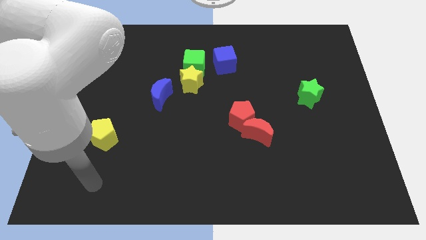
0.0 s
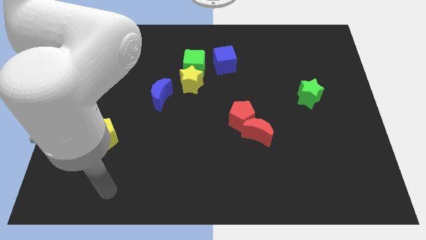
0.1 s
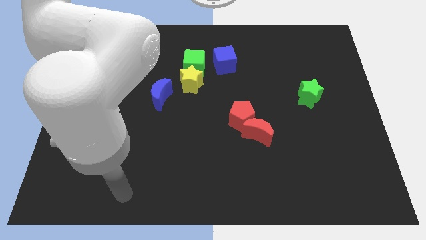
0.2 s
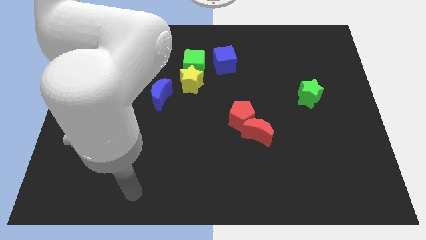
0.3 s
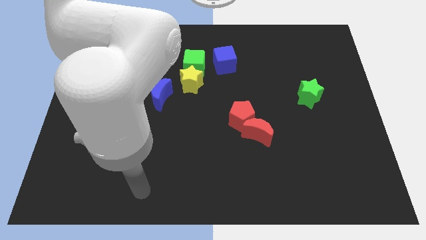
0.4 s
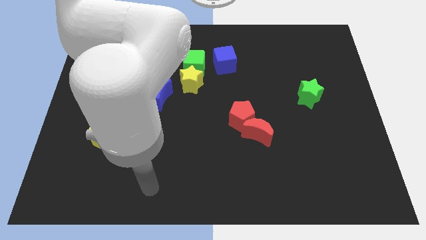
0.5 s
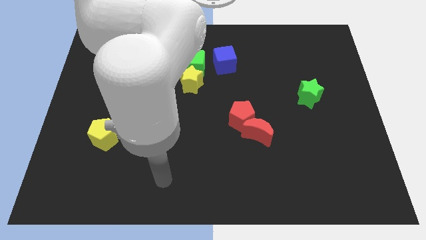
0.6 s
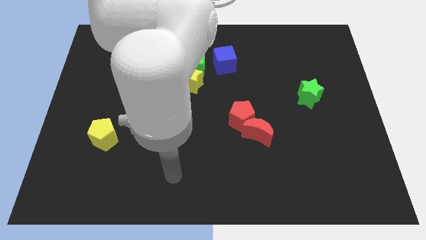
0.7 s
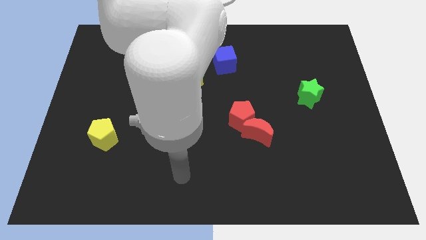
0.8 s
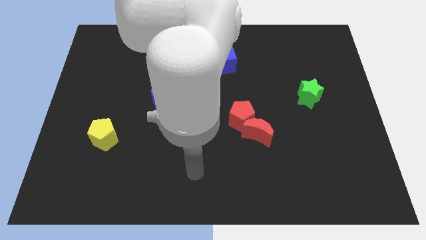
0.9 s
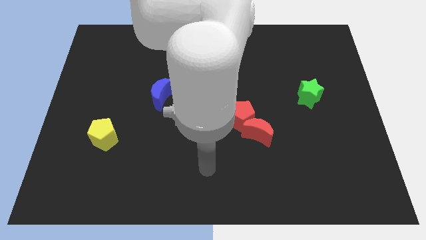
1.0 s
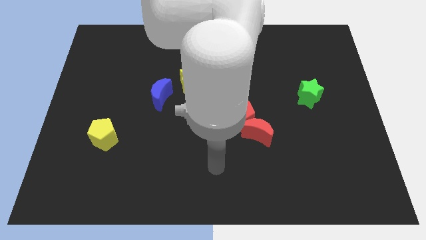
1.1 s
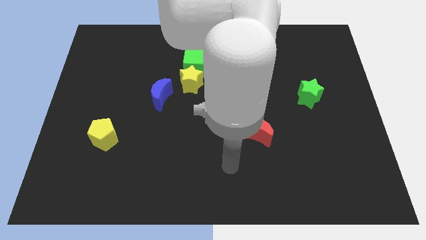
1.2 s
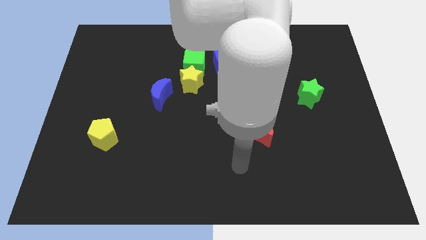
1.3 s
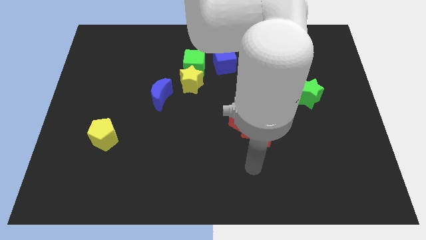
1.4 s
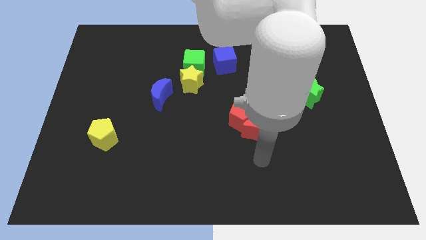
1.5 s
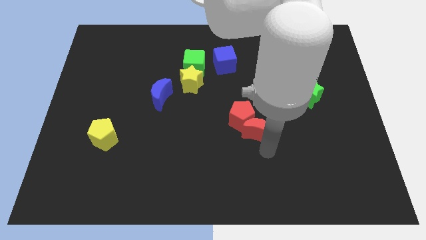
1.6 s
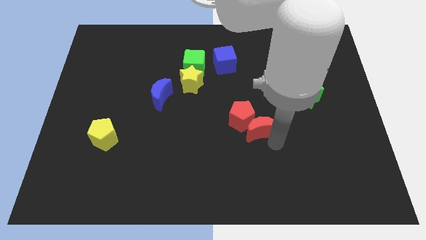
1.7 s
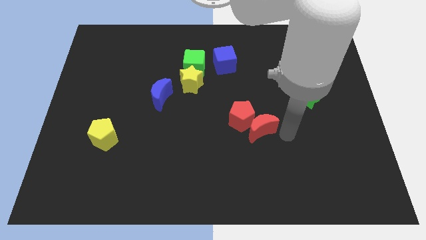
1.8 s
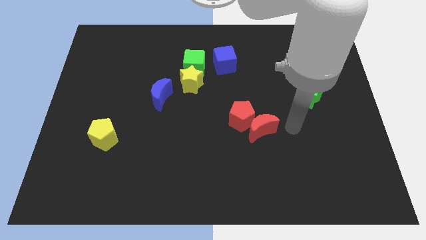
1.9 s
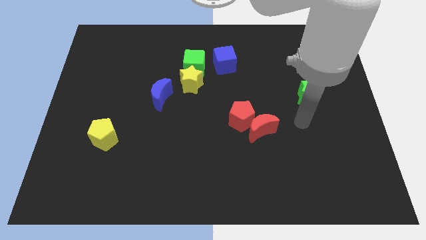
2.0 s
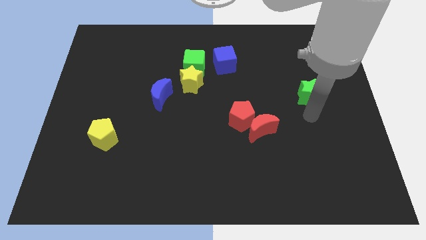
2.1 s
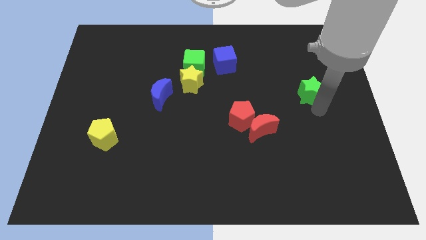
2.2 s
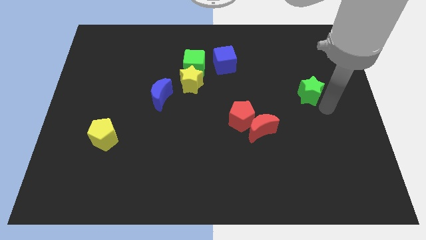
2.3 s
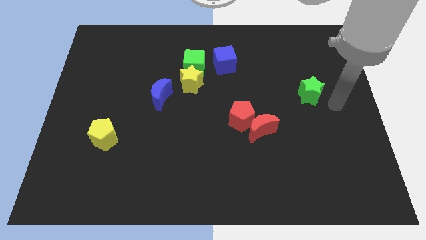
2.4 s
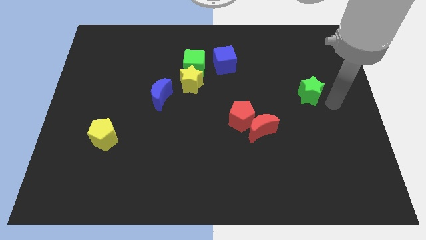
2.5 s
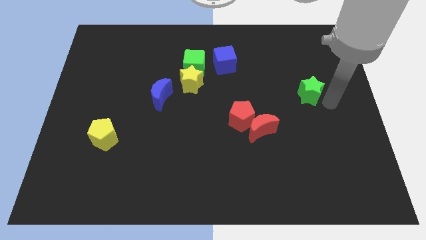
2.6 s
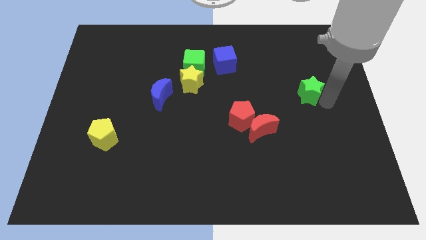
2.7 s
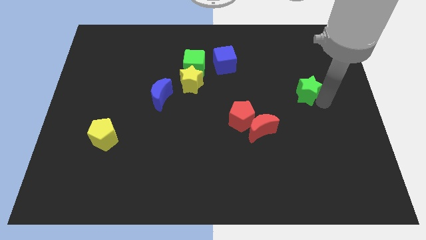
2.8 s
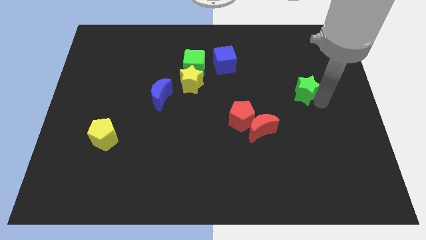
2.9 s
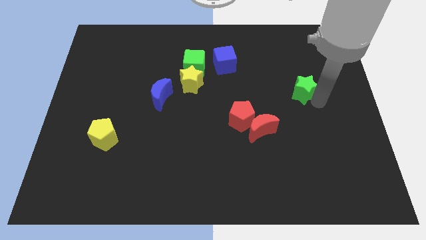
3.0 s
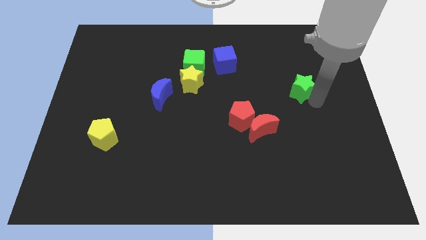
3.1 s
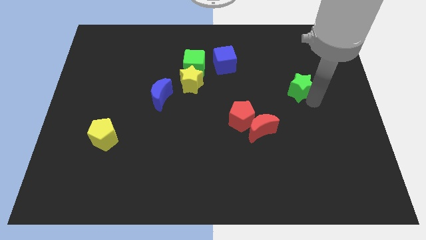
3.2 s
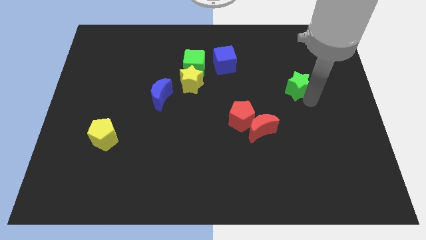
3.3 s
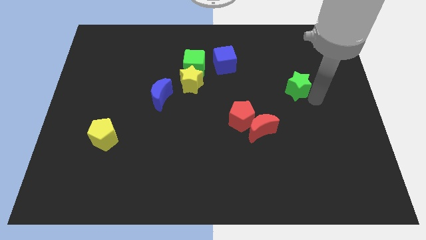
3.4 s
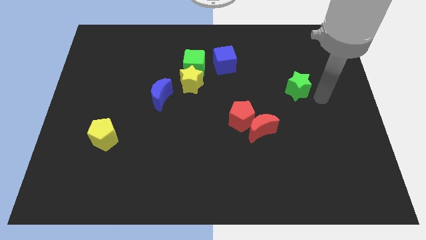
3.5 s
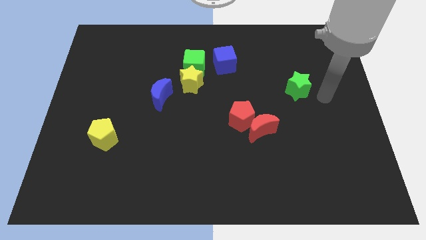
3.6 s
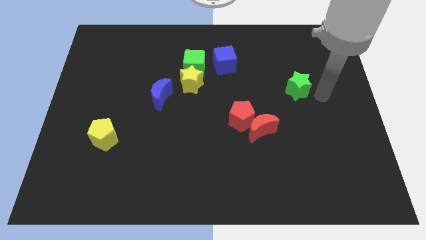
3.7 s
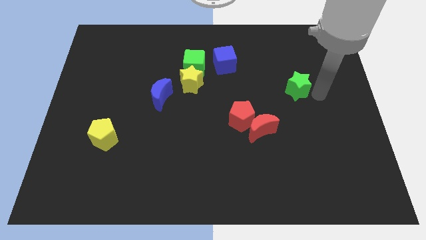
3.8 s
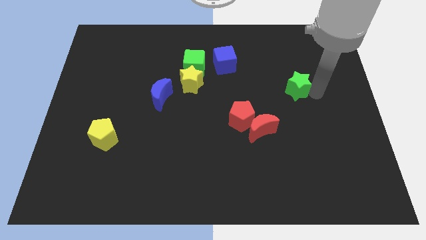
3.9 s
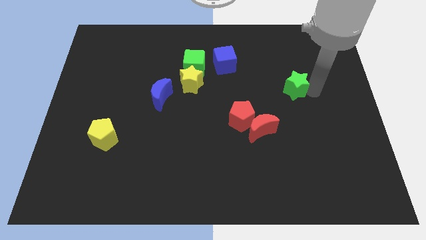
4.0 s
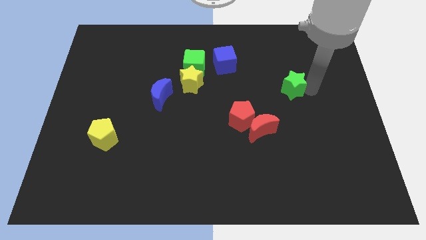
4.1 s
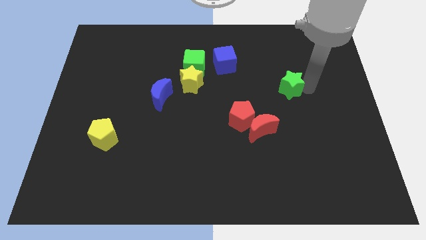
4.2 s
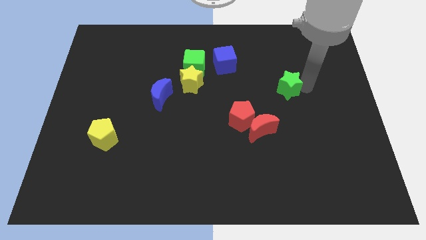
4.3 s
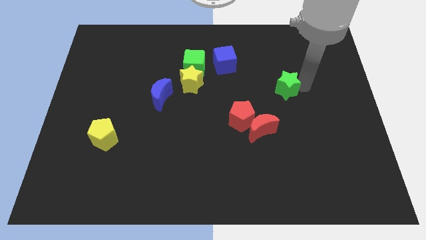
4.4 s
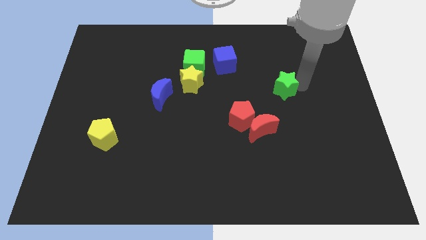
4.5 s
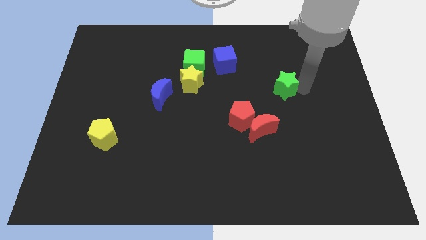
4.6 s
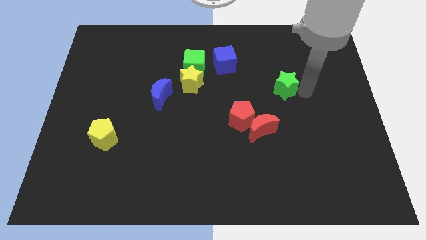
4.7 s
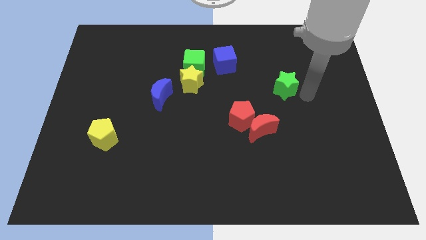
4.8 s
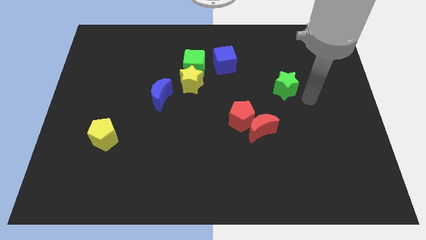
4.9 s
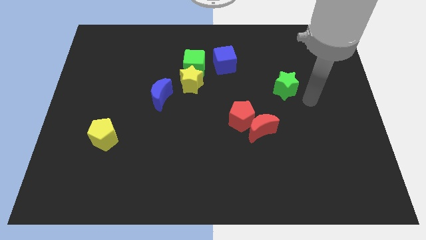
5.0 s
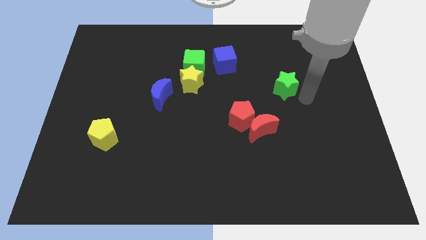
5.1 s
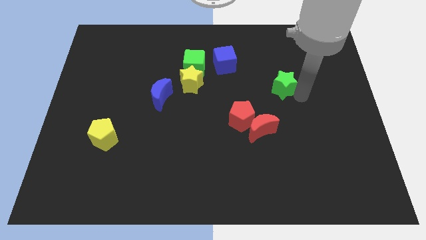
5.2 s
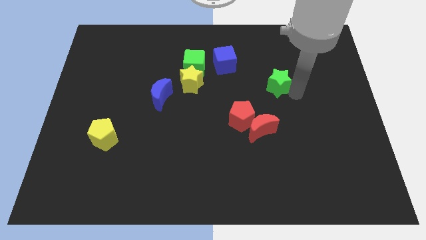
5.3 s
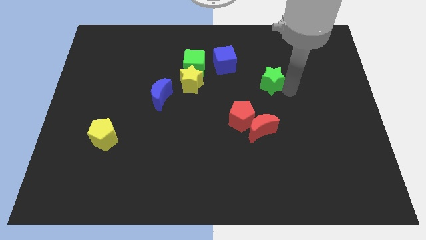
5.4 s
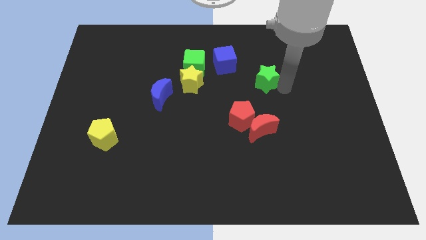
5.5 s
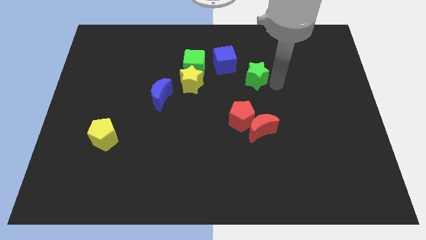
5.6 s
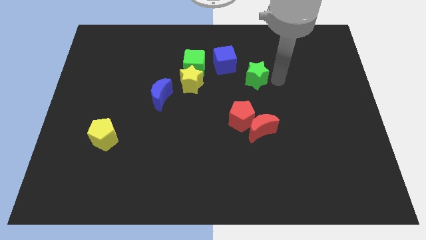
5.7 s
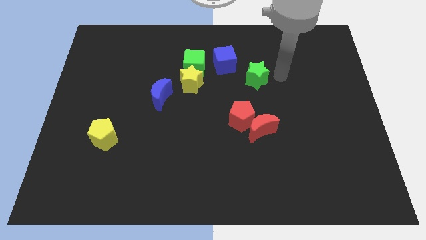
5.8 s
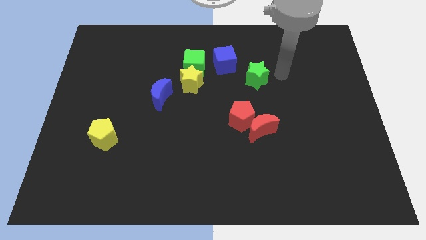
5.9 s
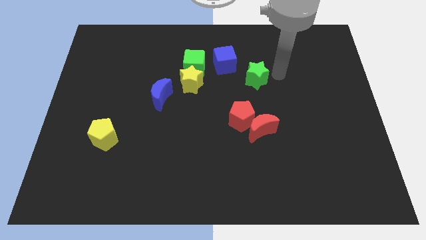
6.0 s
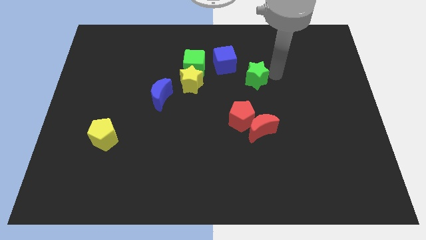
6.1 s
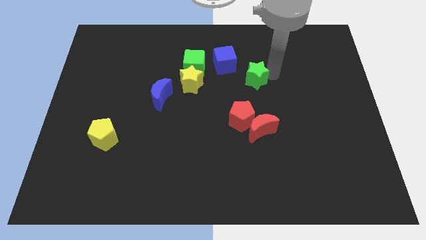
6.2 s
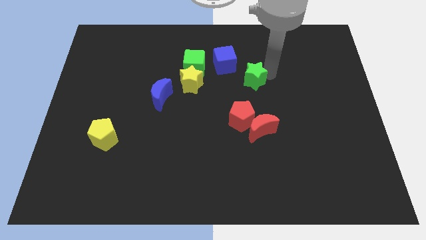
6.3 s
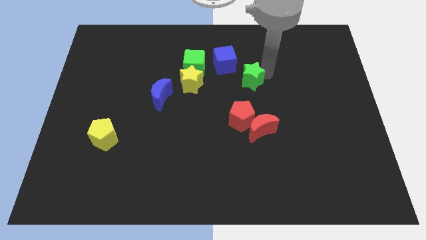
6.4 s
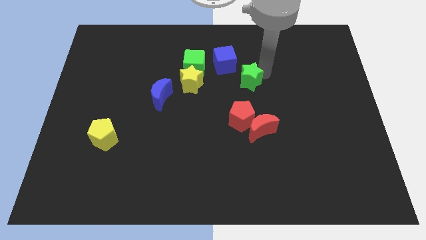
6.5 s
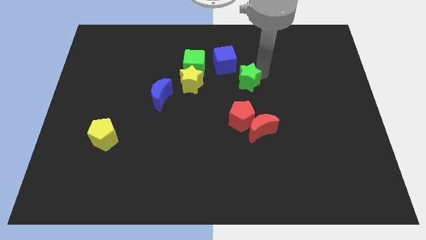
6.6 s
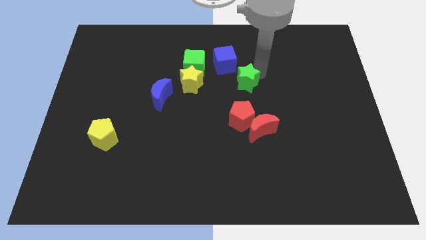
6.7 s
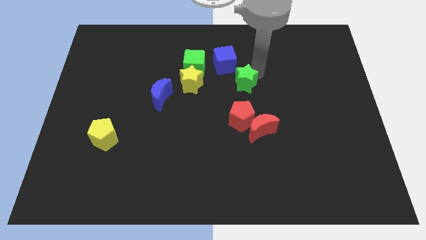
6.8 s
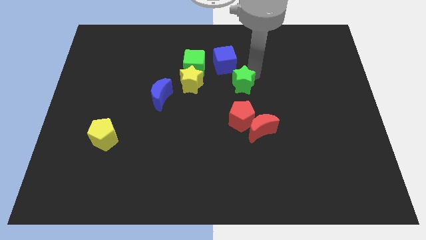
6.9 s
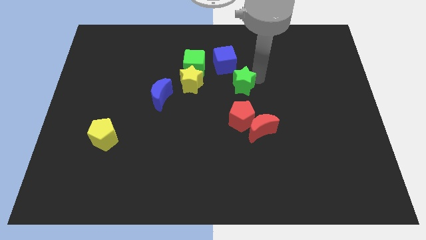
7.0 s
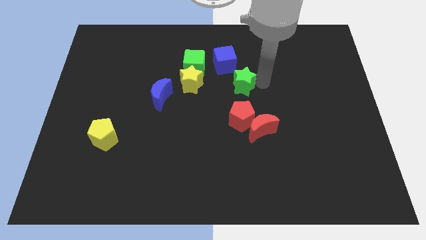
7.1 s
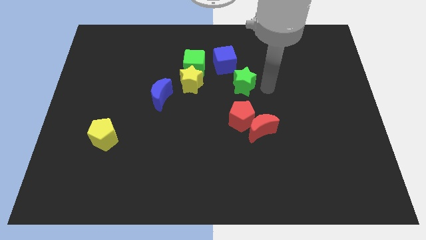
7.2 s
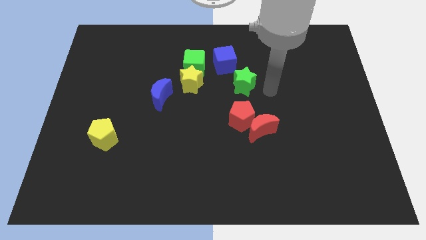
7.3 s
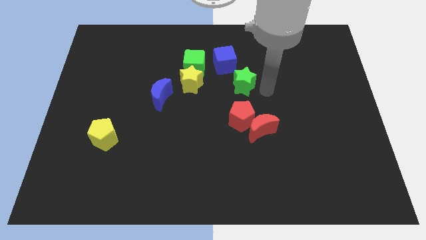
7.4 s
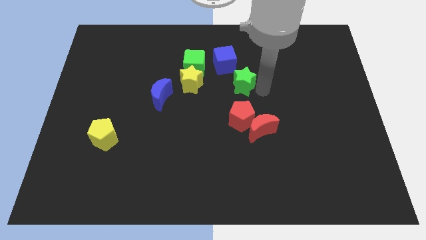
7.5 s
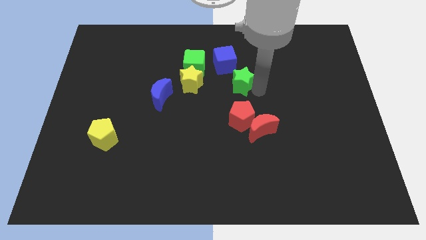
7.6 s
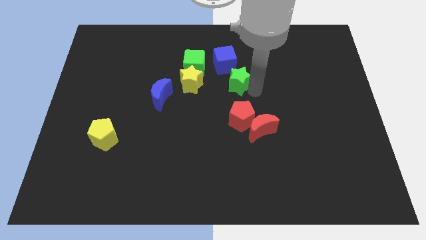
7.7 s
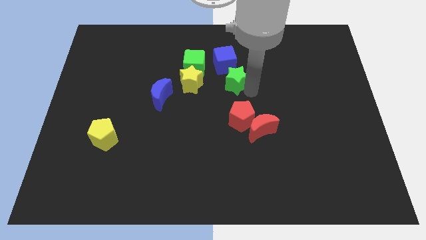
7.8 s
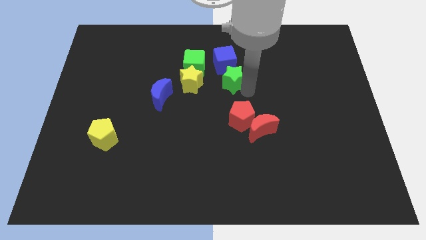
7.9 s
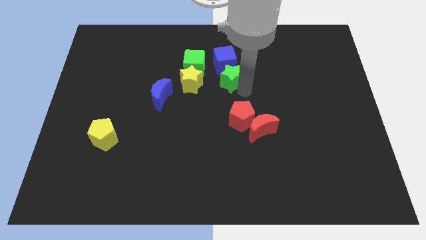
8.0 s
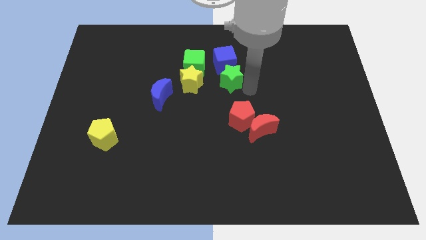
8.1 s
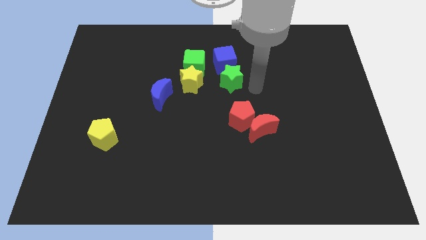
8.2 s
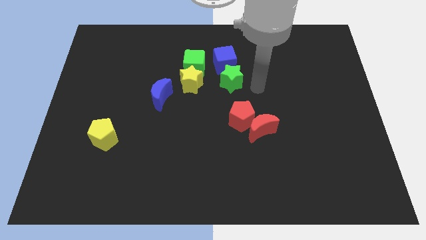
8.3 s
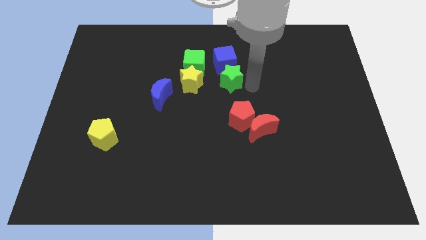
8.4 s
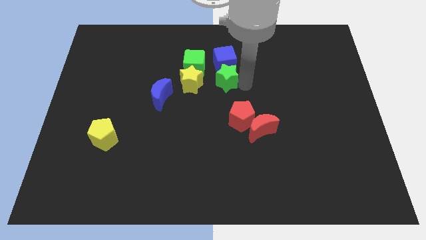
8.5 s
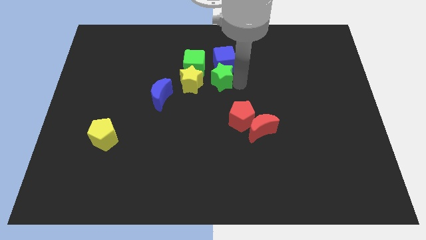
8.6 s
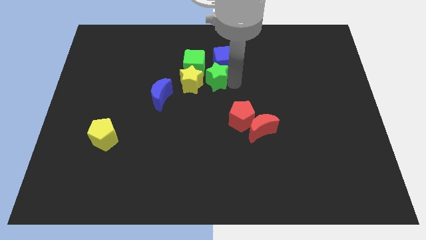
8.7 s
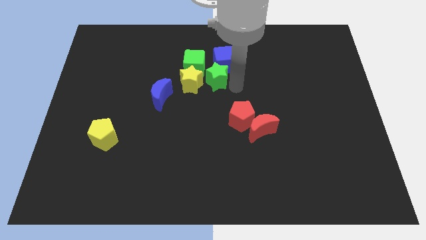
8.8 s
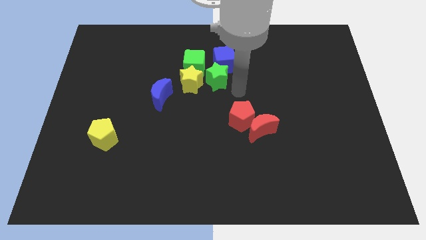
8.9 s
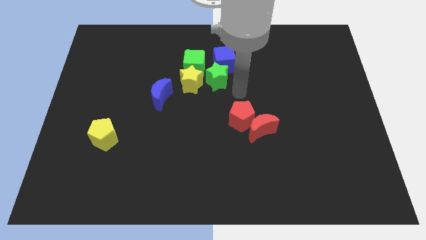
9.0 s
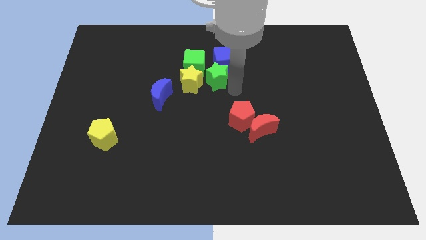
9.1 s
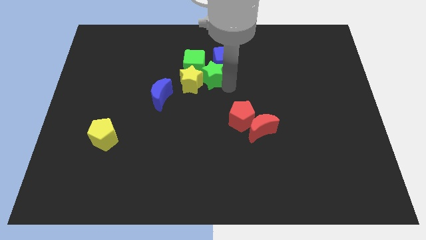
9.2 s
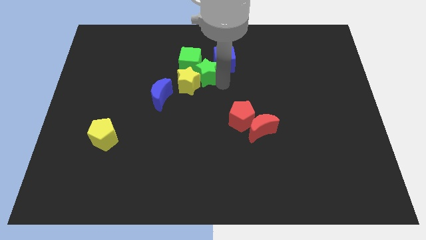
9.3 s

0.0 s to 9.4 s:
move the green star close to the green cube
